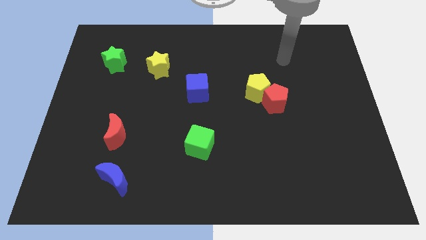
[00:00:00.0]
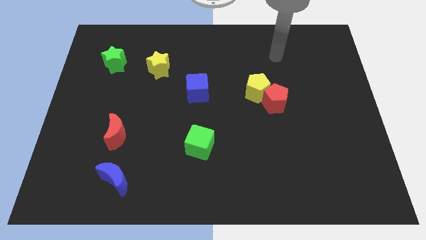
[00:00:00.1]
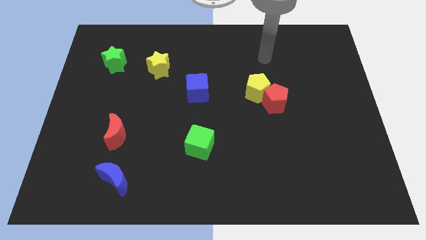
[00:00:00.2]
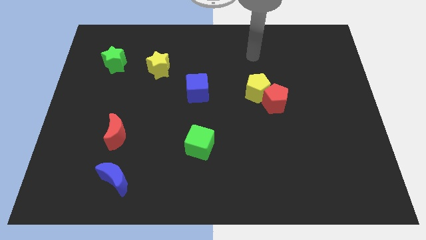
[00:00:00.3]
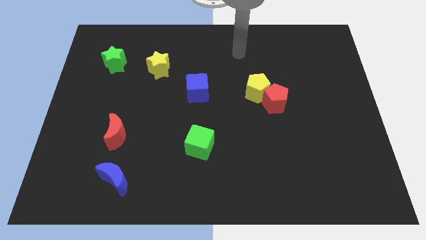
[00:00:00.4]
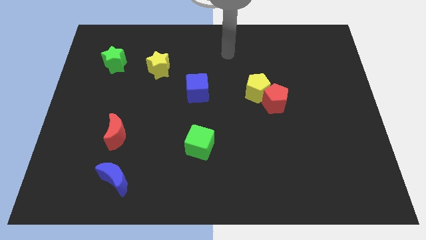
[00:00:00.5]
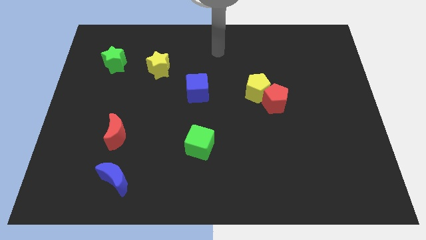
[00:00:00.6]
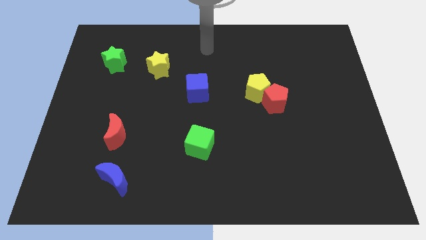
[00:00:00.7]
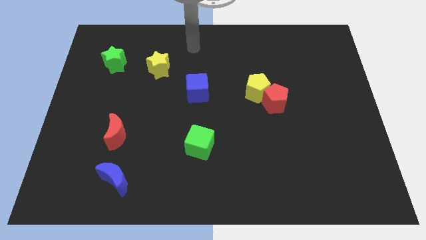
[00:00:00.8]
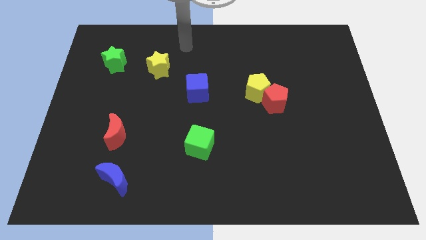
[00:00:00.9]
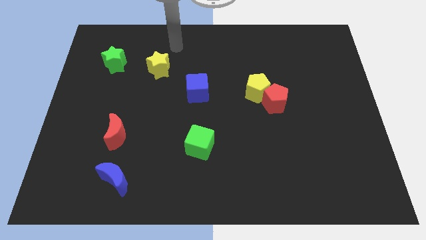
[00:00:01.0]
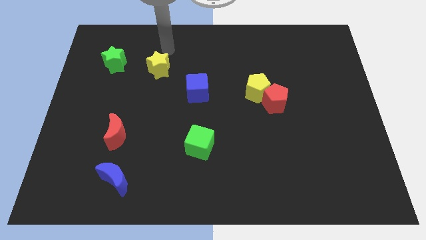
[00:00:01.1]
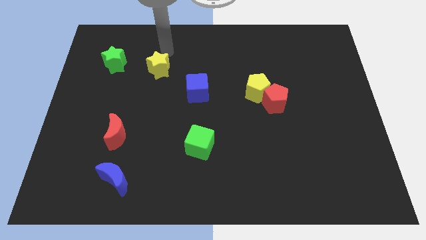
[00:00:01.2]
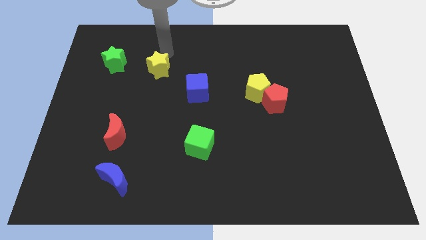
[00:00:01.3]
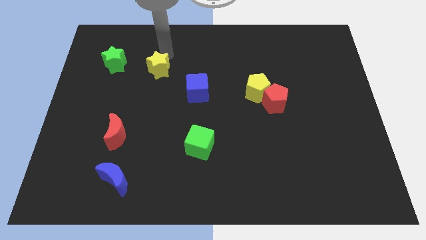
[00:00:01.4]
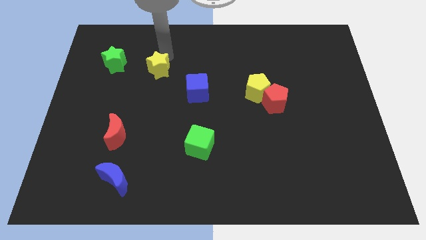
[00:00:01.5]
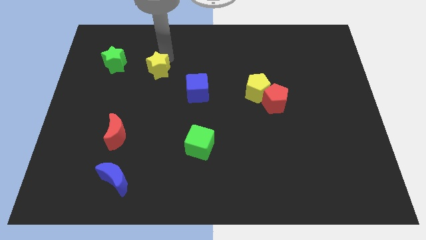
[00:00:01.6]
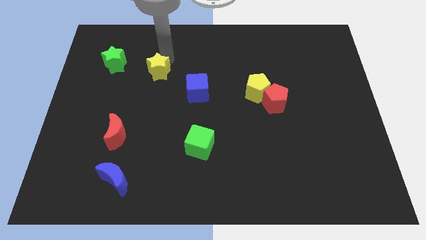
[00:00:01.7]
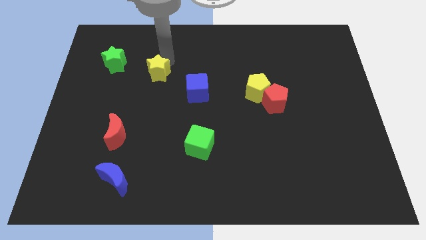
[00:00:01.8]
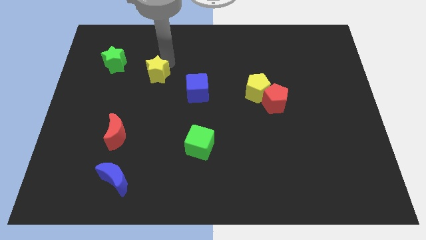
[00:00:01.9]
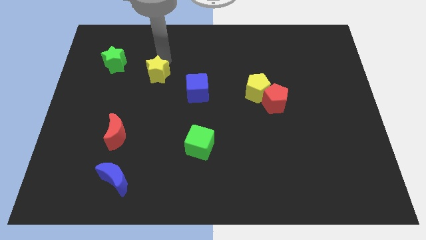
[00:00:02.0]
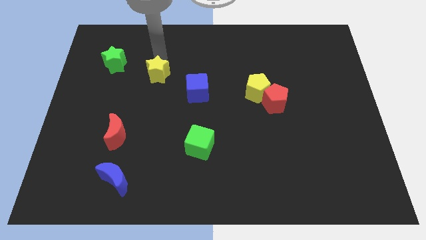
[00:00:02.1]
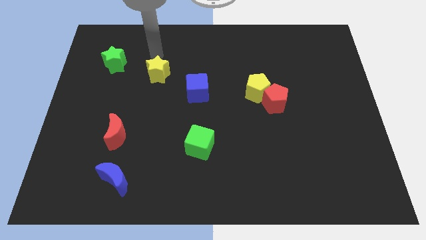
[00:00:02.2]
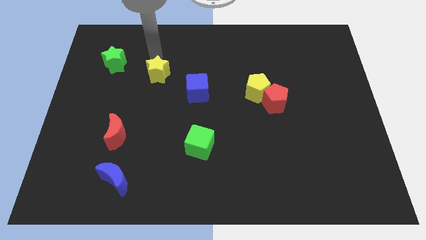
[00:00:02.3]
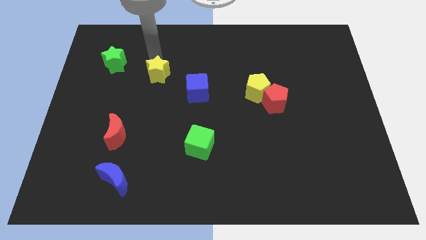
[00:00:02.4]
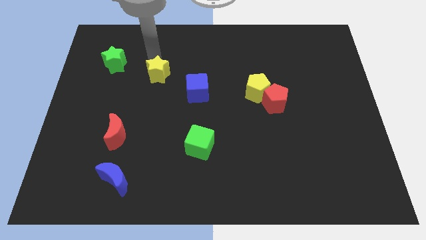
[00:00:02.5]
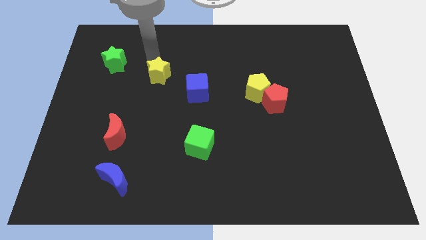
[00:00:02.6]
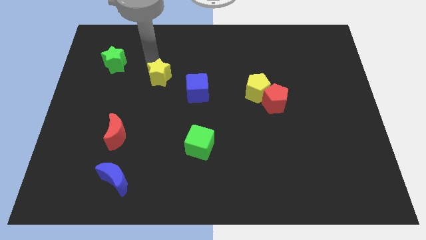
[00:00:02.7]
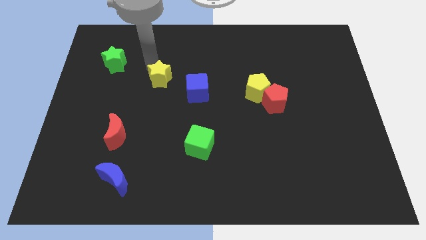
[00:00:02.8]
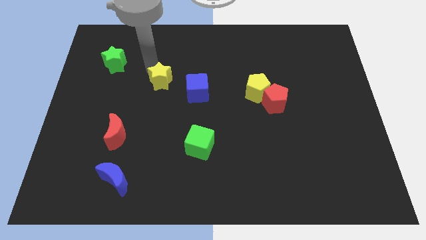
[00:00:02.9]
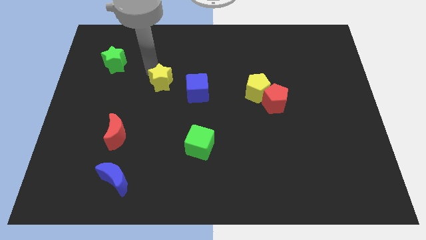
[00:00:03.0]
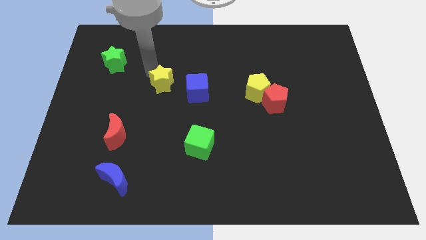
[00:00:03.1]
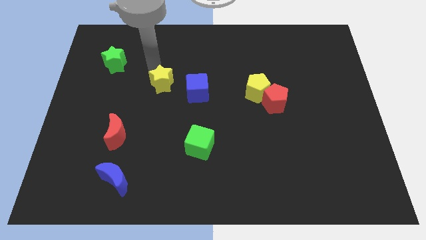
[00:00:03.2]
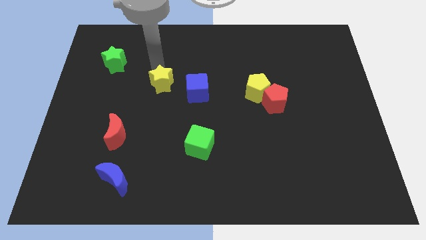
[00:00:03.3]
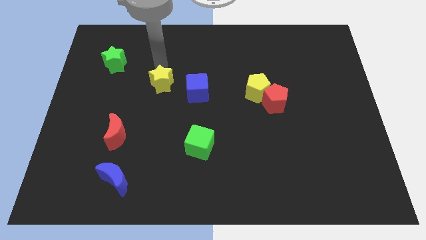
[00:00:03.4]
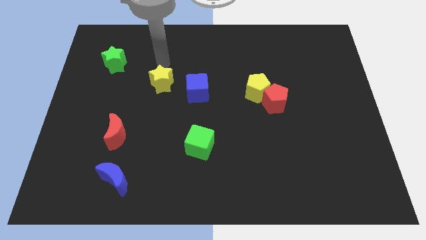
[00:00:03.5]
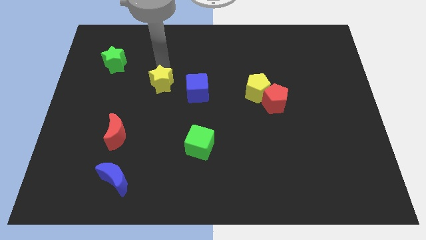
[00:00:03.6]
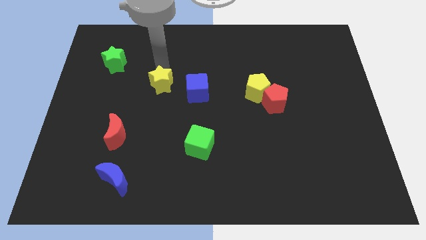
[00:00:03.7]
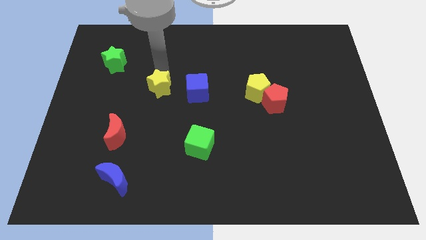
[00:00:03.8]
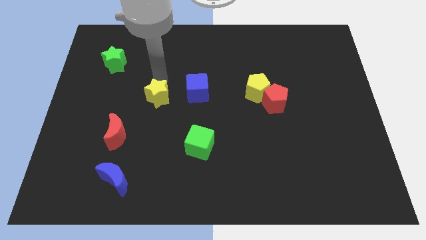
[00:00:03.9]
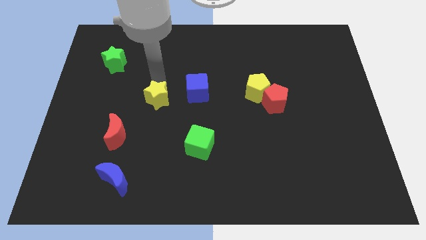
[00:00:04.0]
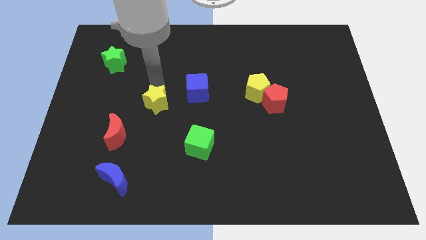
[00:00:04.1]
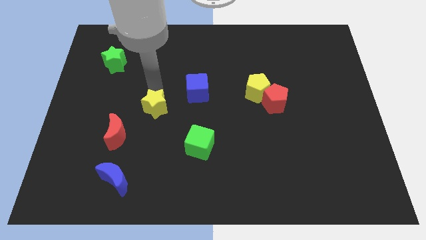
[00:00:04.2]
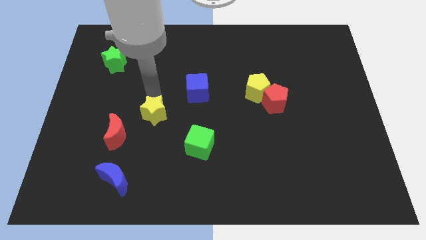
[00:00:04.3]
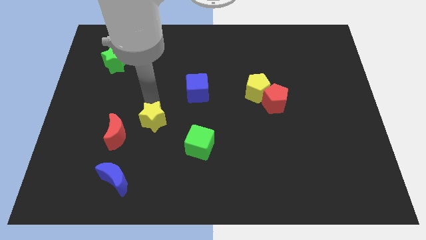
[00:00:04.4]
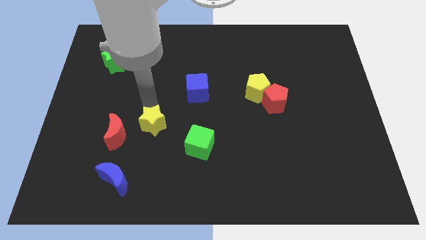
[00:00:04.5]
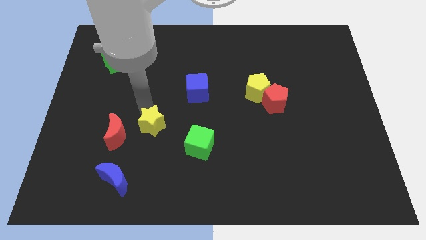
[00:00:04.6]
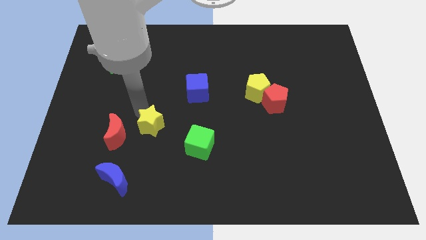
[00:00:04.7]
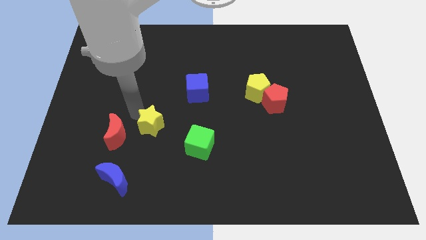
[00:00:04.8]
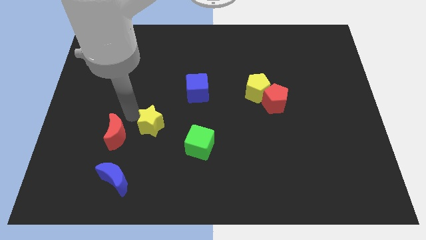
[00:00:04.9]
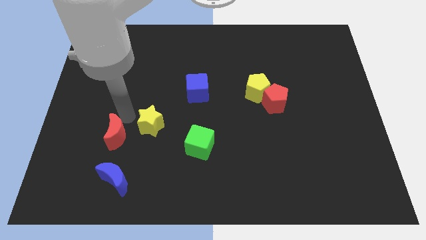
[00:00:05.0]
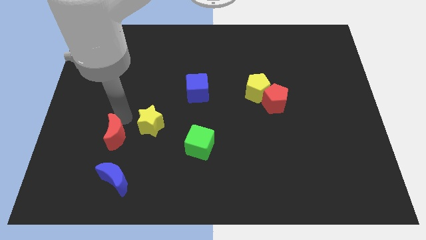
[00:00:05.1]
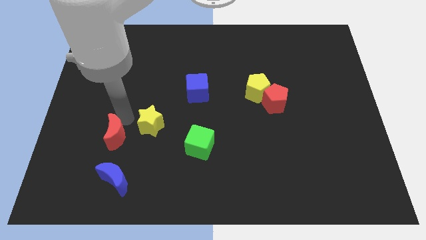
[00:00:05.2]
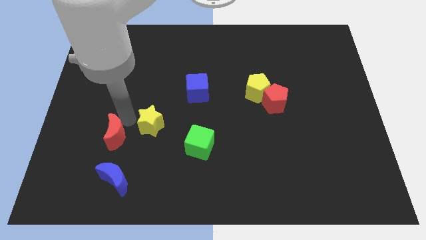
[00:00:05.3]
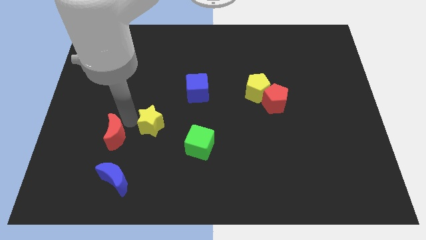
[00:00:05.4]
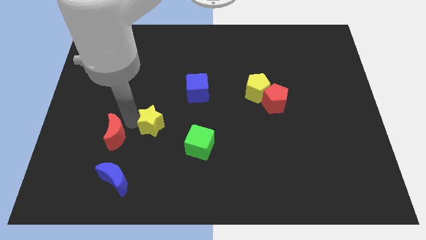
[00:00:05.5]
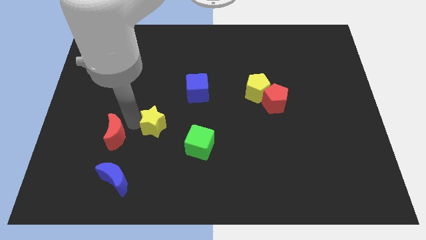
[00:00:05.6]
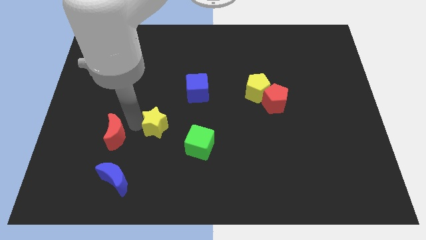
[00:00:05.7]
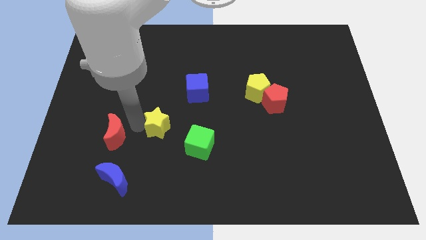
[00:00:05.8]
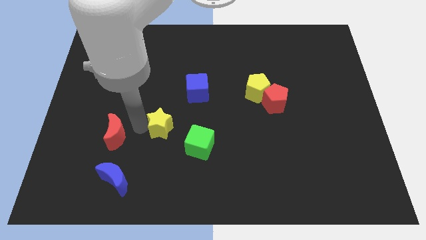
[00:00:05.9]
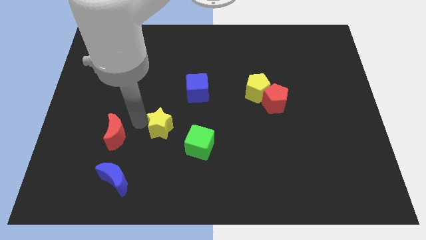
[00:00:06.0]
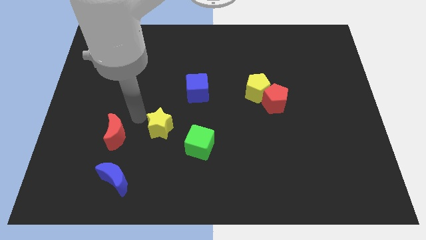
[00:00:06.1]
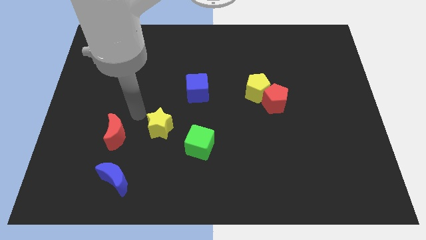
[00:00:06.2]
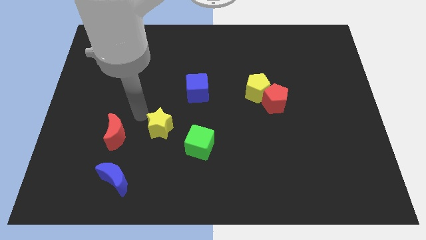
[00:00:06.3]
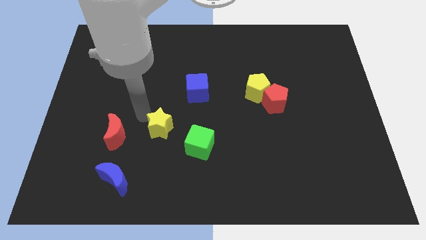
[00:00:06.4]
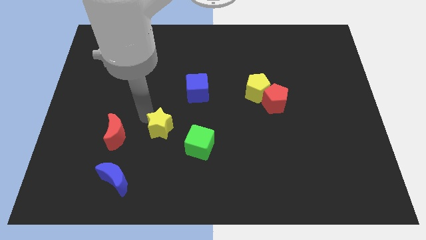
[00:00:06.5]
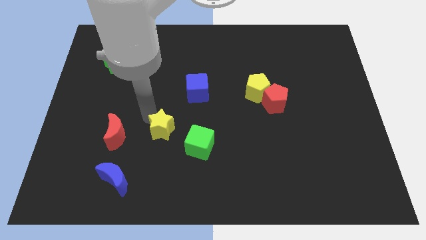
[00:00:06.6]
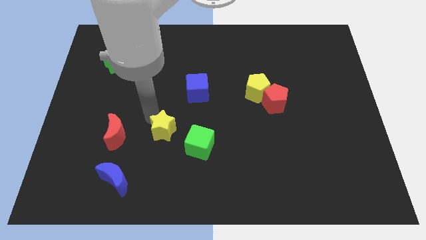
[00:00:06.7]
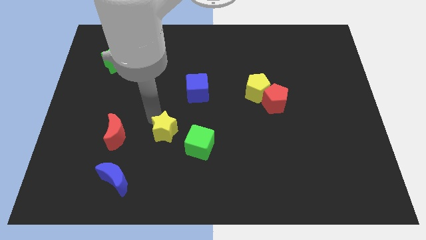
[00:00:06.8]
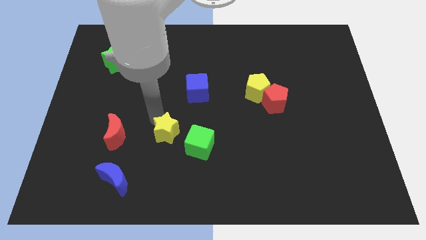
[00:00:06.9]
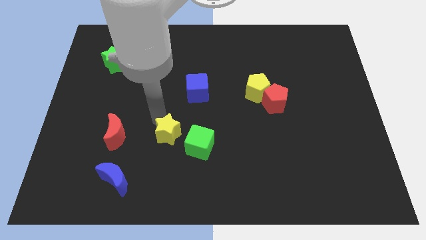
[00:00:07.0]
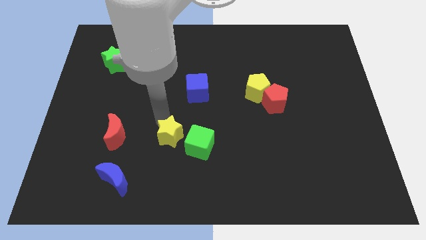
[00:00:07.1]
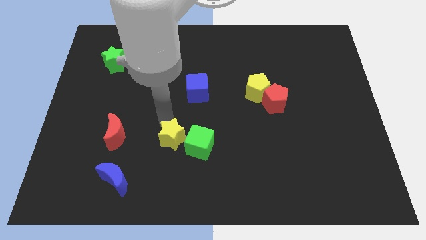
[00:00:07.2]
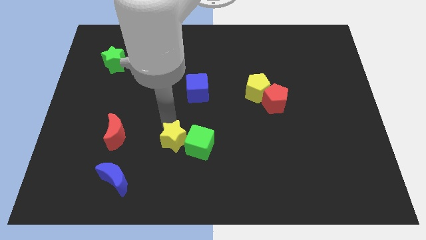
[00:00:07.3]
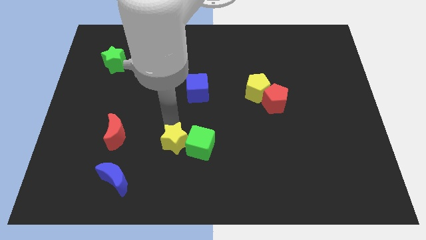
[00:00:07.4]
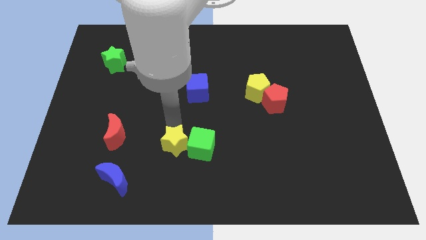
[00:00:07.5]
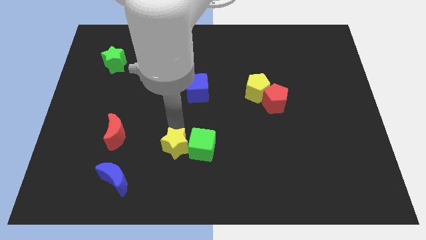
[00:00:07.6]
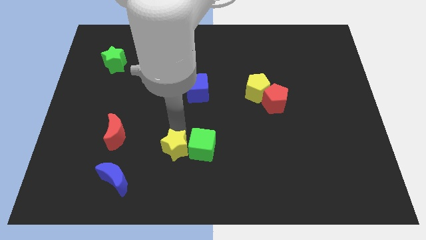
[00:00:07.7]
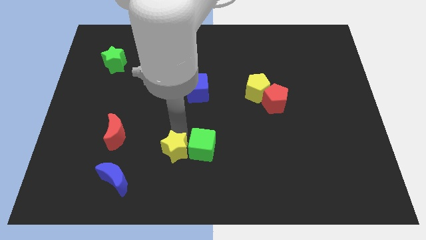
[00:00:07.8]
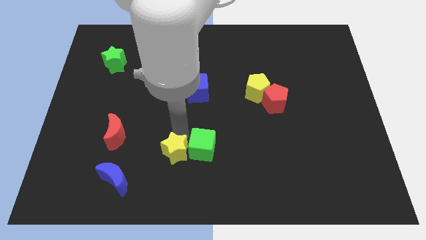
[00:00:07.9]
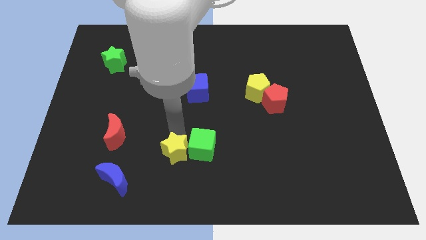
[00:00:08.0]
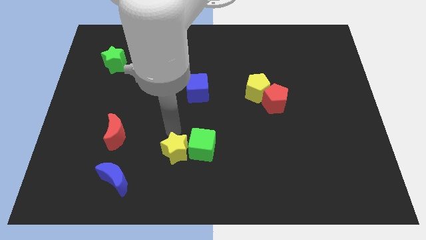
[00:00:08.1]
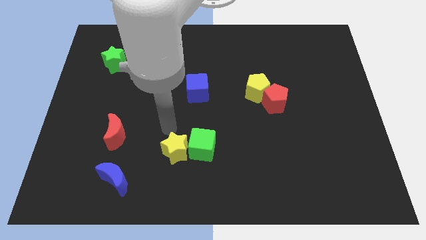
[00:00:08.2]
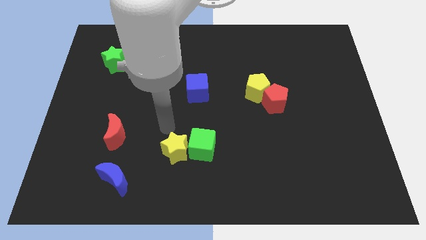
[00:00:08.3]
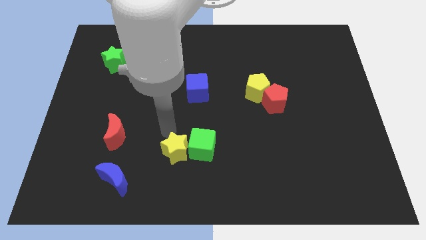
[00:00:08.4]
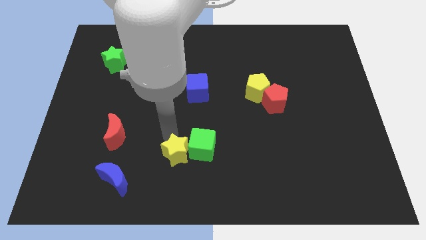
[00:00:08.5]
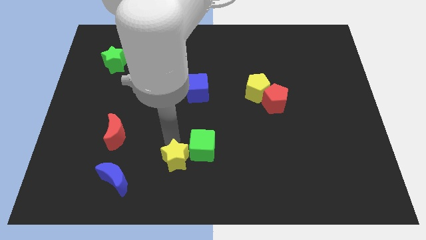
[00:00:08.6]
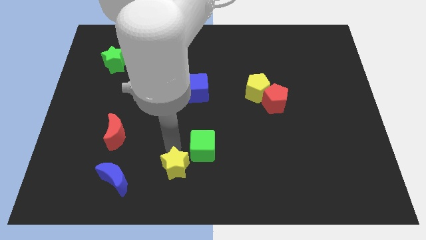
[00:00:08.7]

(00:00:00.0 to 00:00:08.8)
put the yellow star to the bottom
